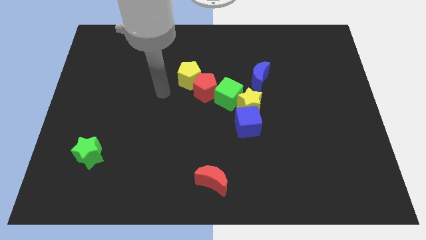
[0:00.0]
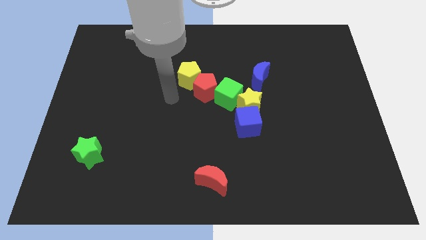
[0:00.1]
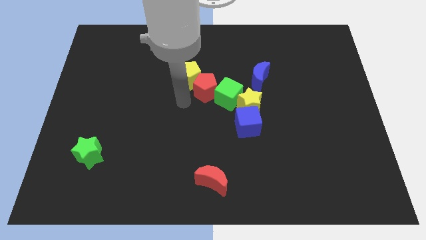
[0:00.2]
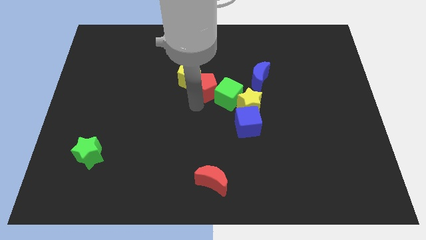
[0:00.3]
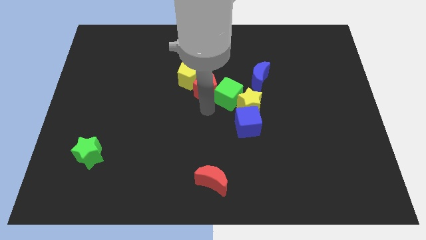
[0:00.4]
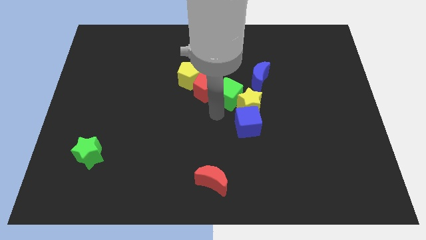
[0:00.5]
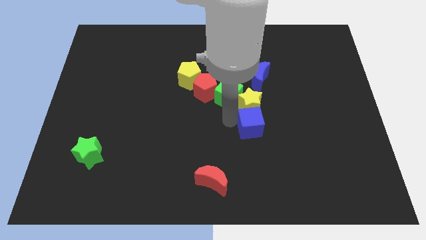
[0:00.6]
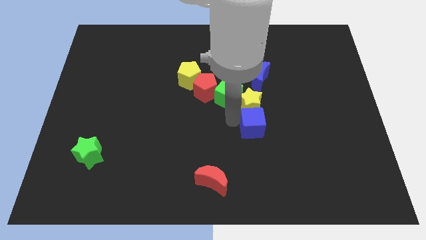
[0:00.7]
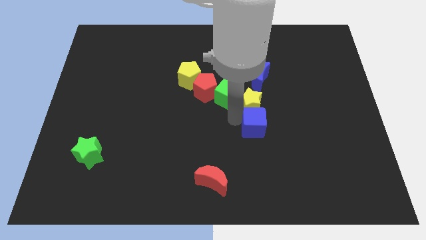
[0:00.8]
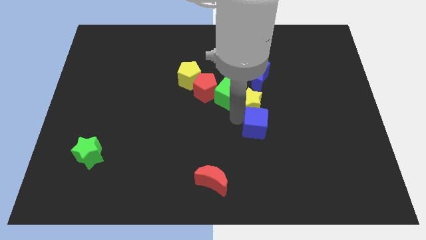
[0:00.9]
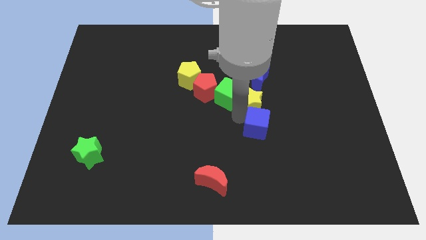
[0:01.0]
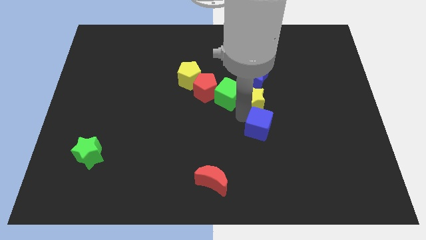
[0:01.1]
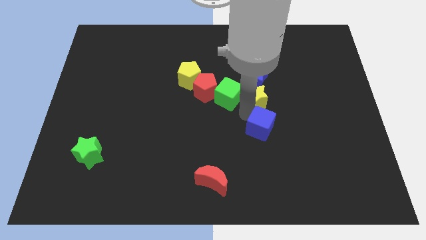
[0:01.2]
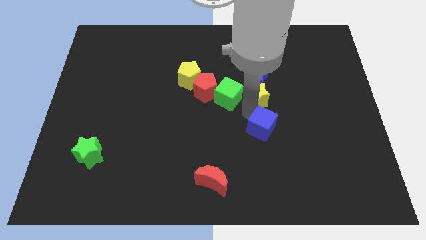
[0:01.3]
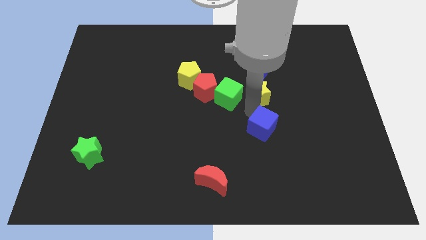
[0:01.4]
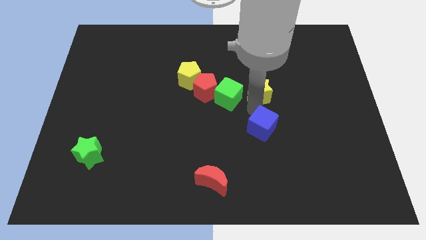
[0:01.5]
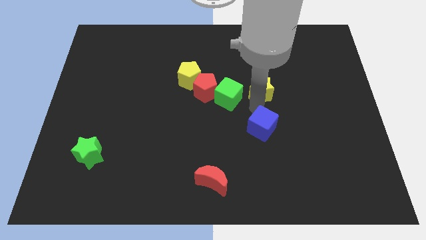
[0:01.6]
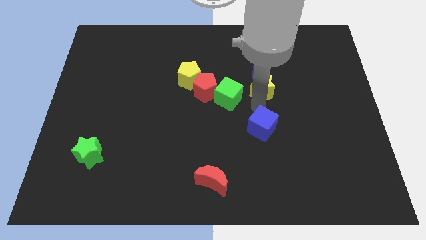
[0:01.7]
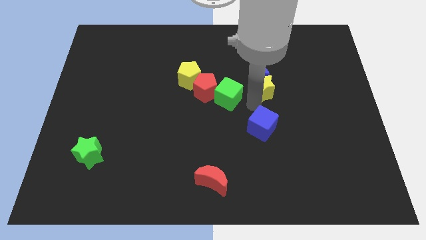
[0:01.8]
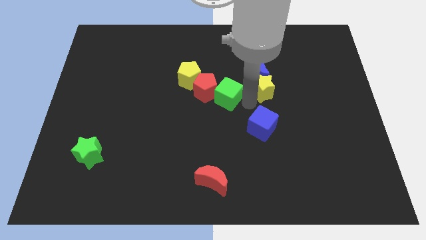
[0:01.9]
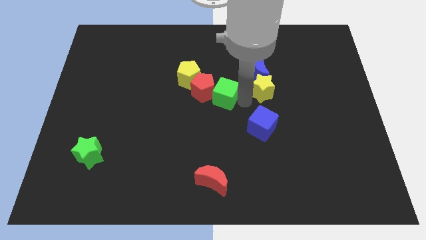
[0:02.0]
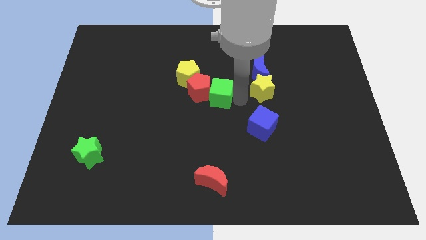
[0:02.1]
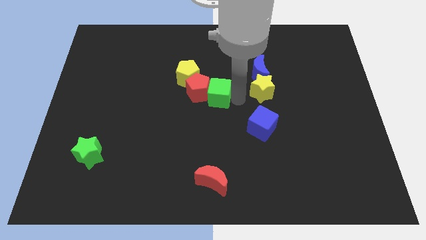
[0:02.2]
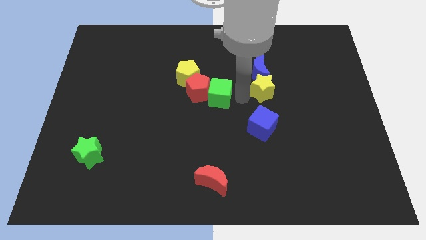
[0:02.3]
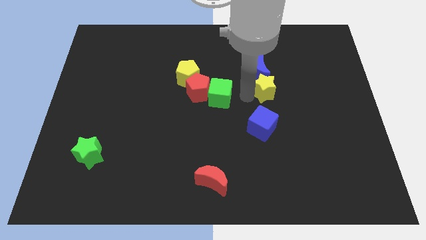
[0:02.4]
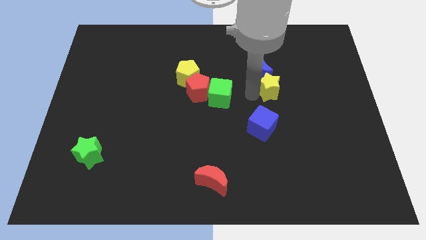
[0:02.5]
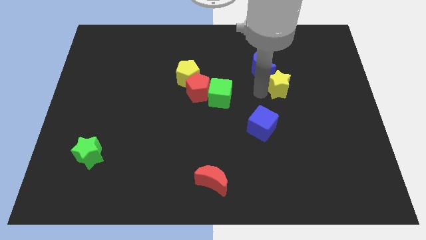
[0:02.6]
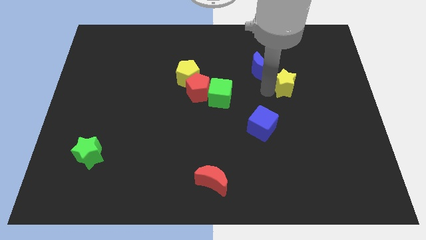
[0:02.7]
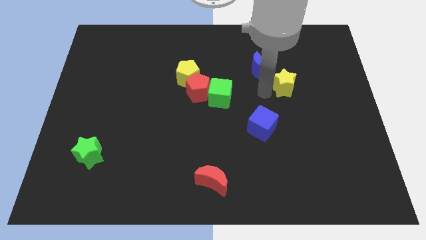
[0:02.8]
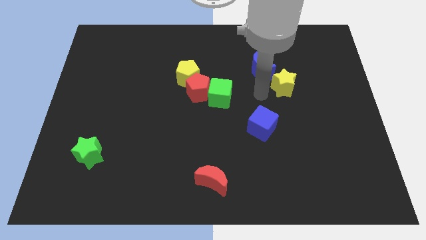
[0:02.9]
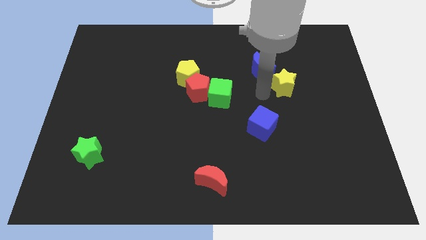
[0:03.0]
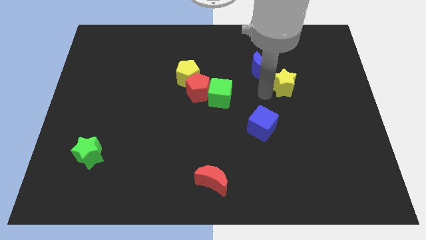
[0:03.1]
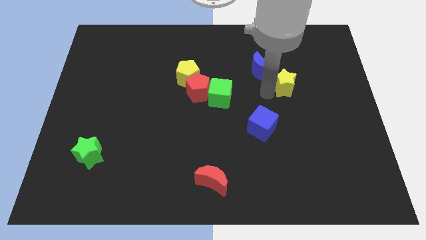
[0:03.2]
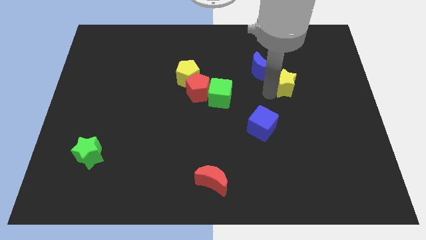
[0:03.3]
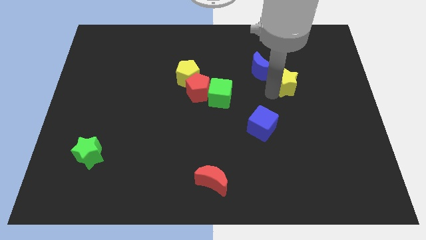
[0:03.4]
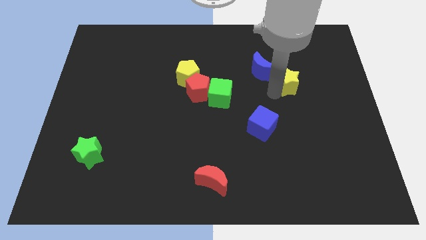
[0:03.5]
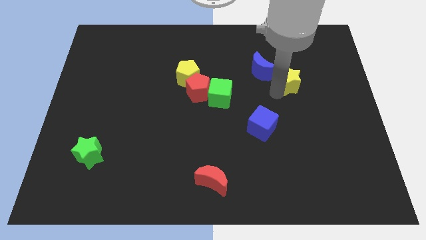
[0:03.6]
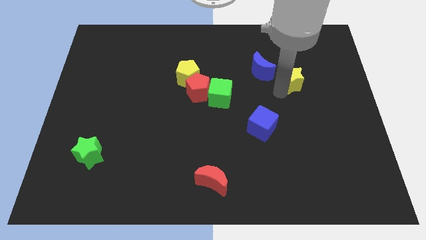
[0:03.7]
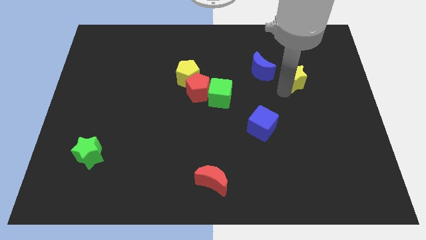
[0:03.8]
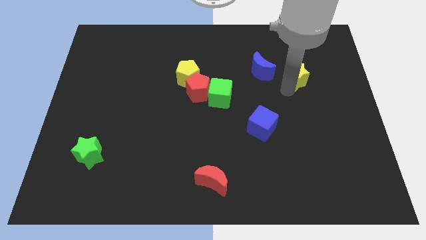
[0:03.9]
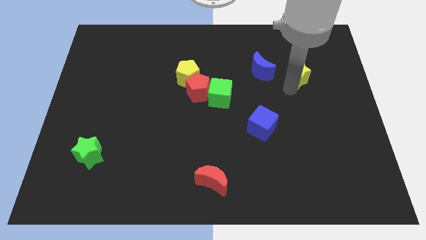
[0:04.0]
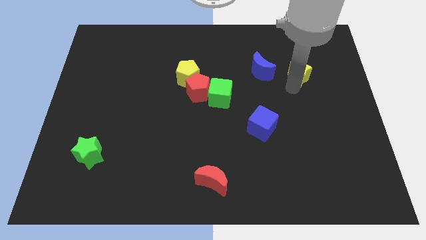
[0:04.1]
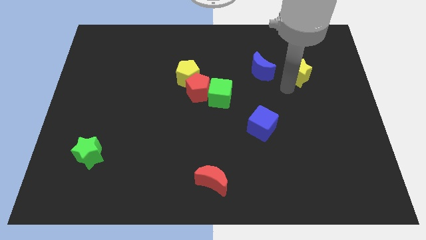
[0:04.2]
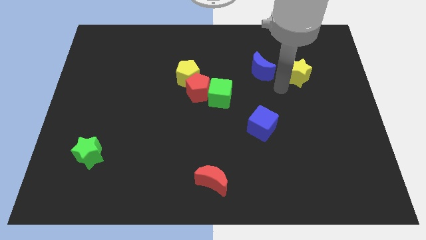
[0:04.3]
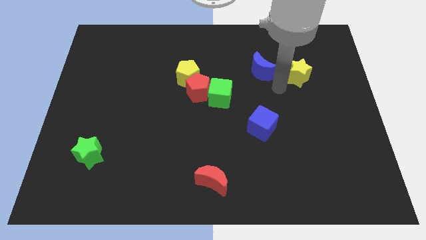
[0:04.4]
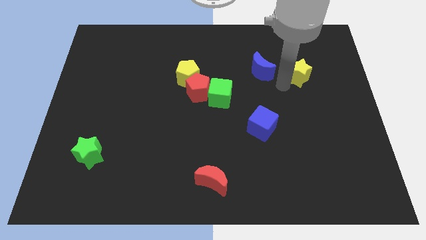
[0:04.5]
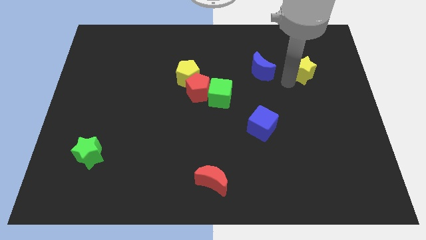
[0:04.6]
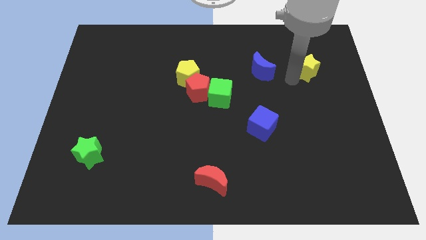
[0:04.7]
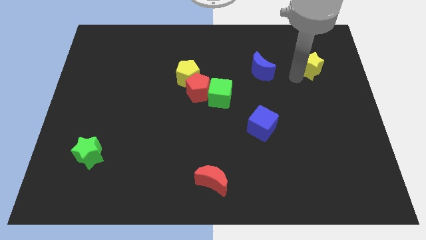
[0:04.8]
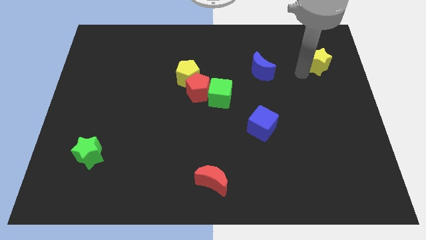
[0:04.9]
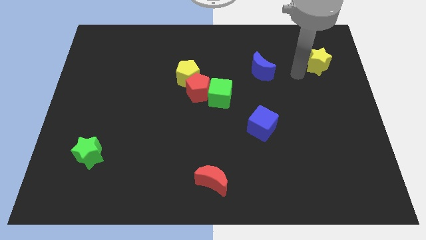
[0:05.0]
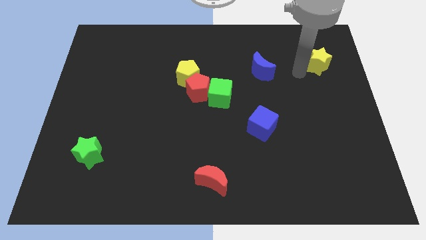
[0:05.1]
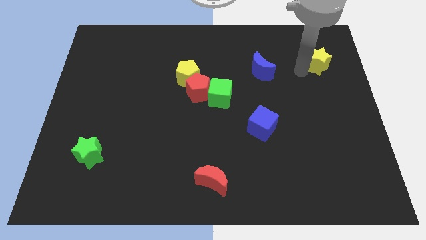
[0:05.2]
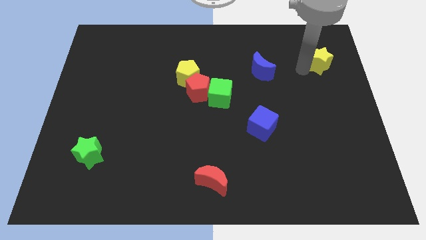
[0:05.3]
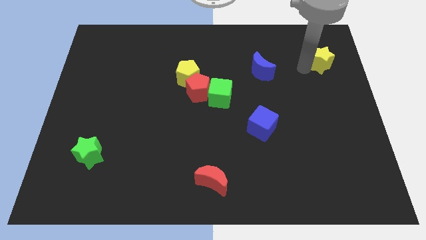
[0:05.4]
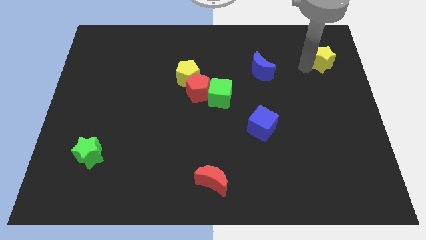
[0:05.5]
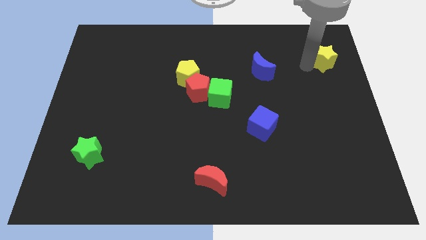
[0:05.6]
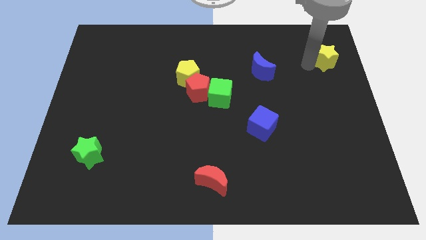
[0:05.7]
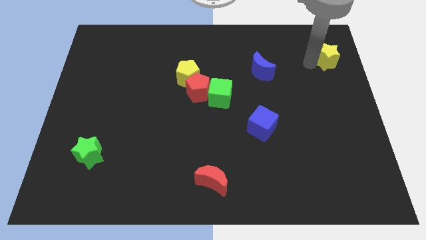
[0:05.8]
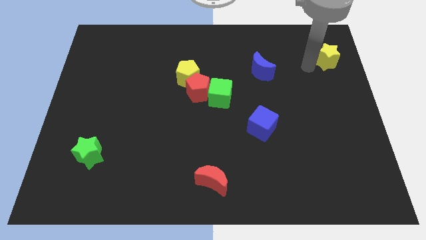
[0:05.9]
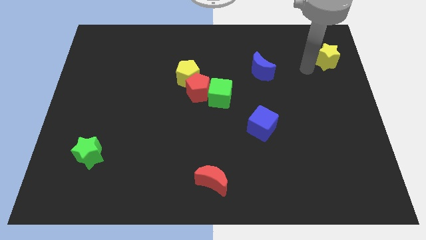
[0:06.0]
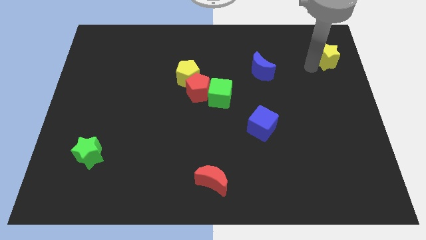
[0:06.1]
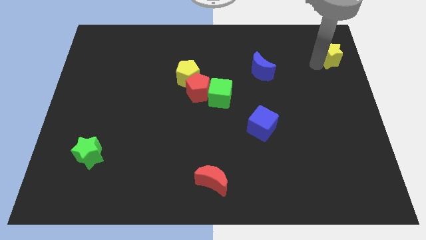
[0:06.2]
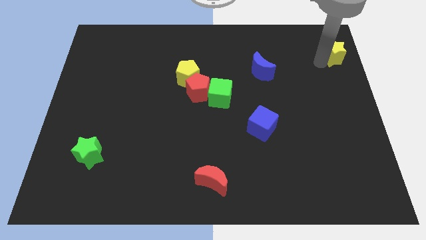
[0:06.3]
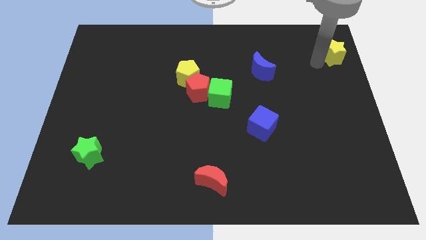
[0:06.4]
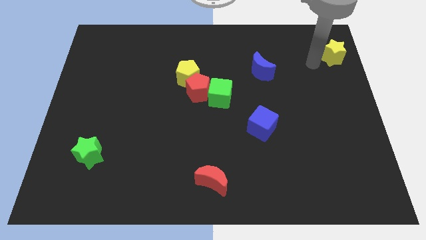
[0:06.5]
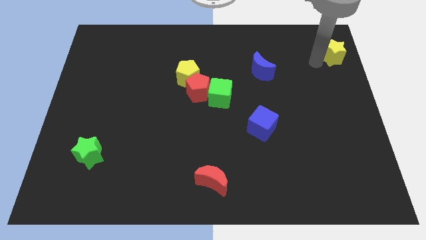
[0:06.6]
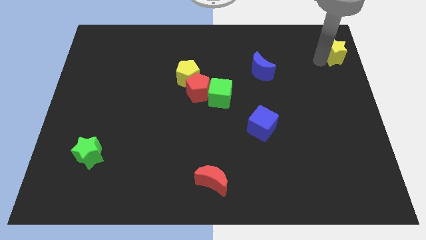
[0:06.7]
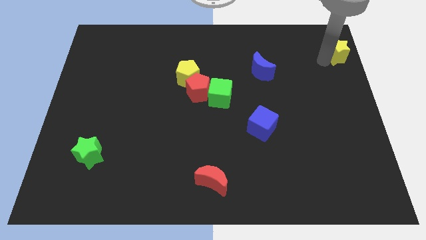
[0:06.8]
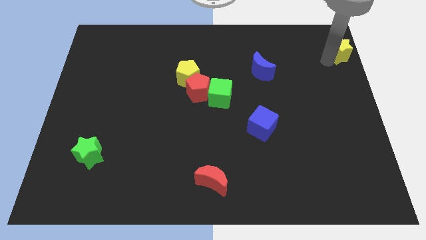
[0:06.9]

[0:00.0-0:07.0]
push the yellow star to the top right corner
